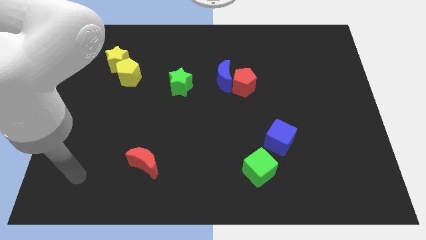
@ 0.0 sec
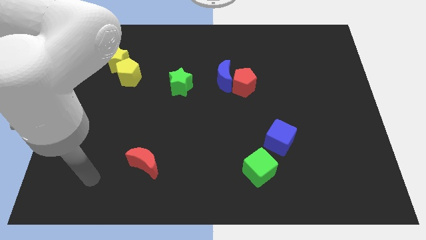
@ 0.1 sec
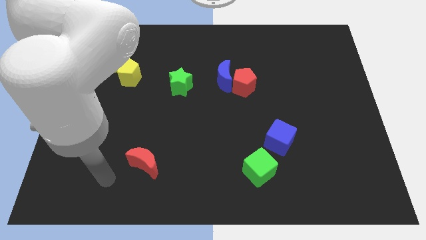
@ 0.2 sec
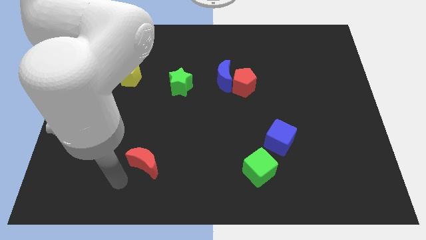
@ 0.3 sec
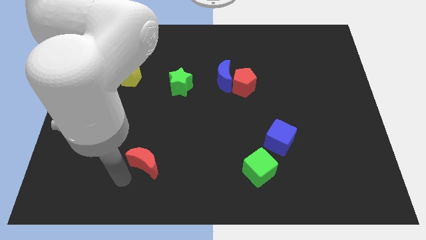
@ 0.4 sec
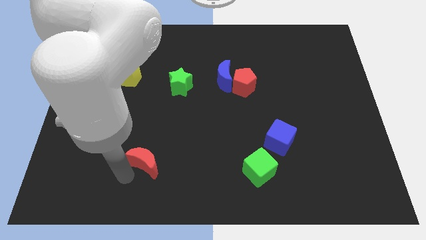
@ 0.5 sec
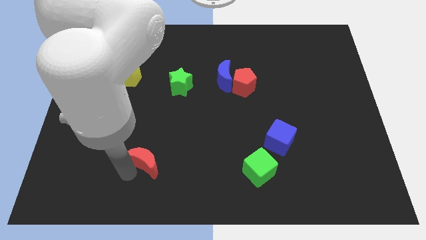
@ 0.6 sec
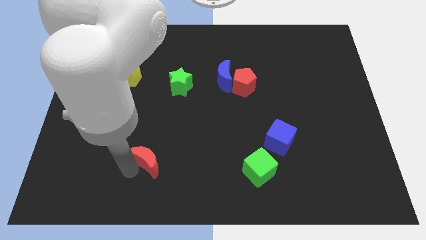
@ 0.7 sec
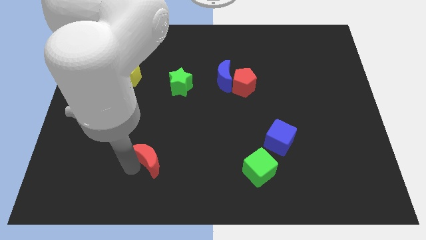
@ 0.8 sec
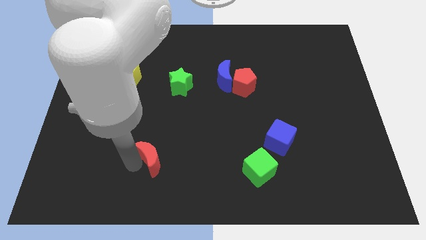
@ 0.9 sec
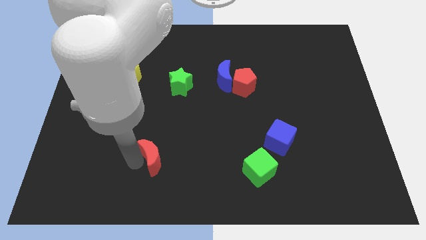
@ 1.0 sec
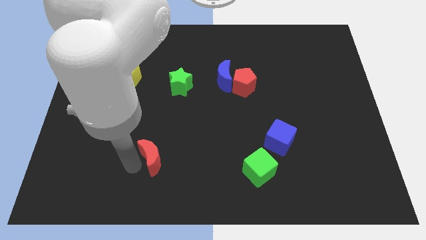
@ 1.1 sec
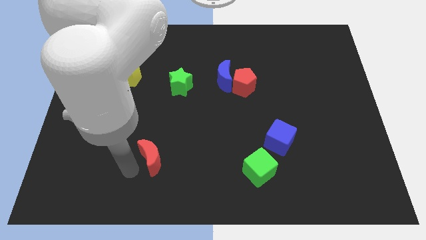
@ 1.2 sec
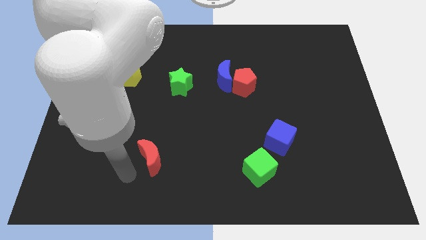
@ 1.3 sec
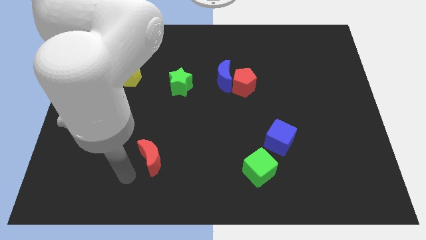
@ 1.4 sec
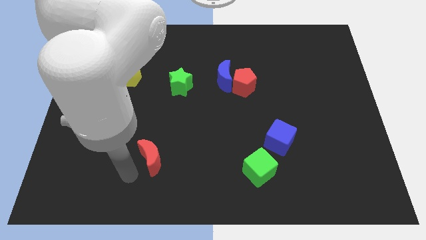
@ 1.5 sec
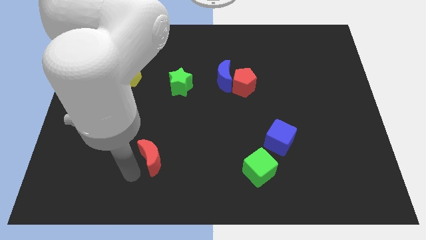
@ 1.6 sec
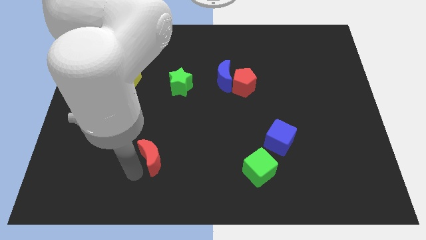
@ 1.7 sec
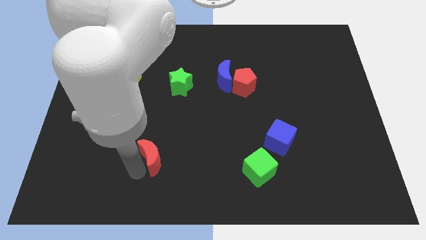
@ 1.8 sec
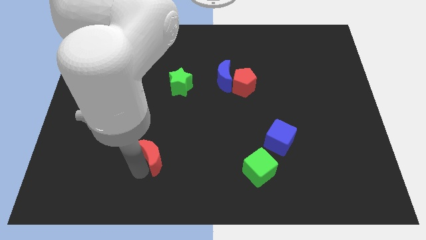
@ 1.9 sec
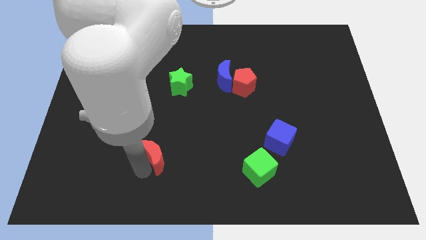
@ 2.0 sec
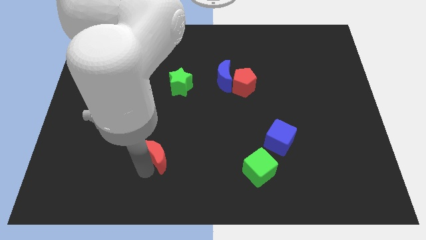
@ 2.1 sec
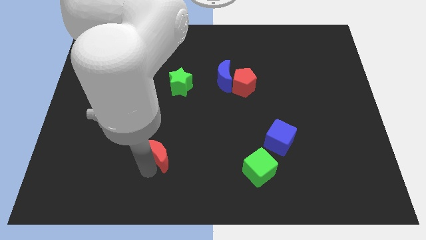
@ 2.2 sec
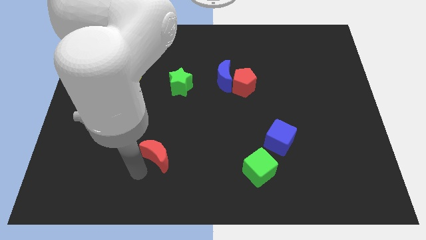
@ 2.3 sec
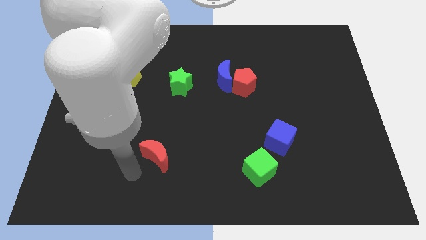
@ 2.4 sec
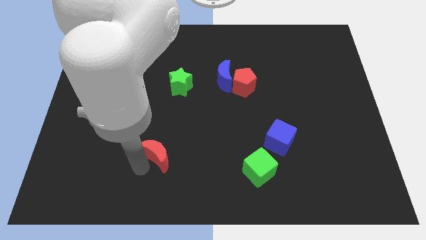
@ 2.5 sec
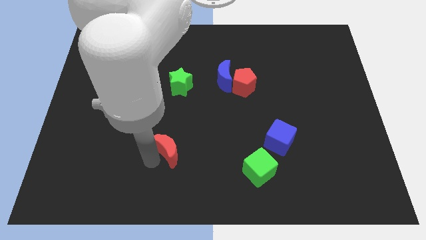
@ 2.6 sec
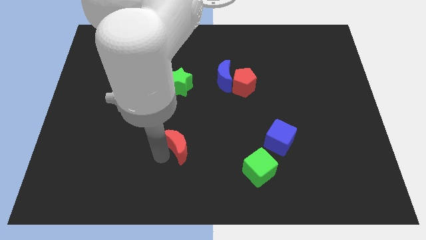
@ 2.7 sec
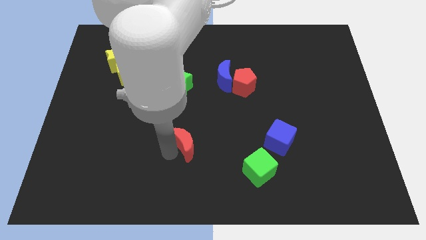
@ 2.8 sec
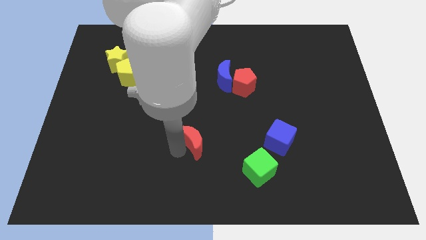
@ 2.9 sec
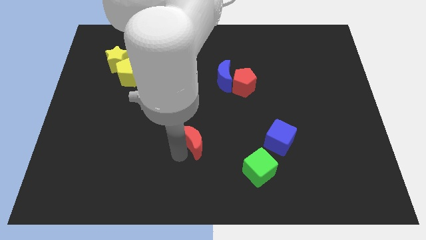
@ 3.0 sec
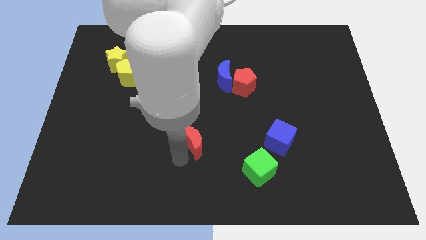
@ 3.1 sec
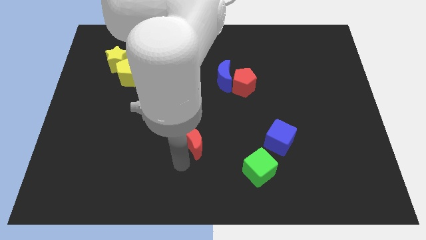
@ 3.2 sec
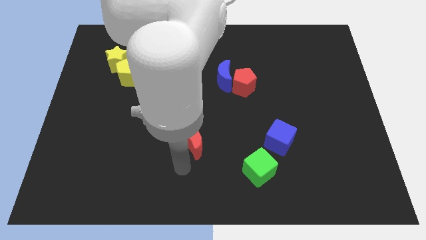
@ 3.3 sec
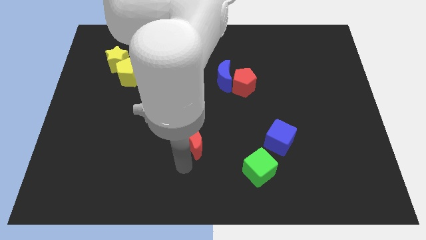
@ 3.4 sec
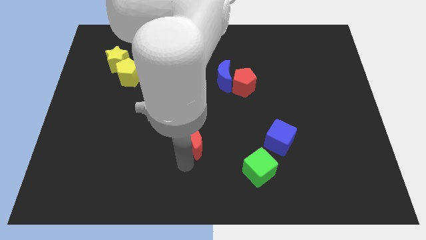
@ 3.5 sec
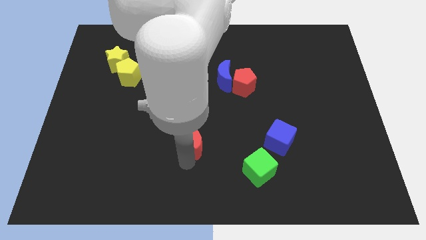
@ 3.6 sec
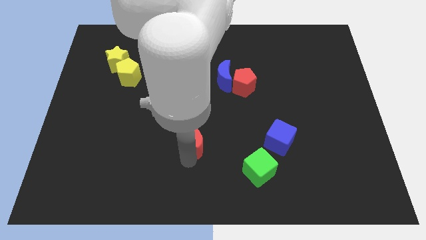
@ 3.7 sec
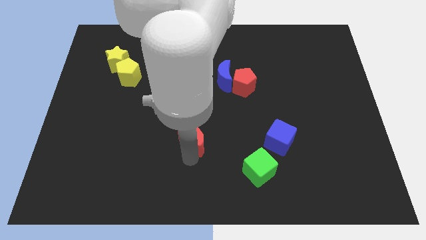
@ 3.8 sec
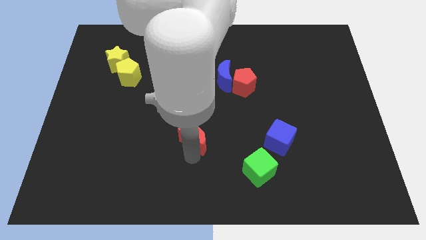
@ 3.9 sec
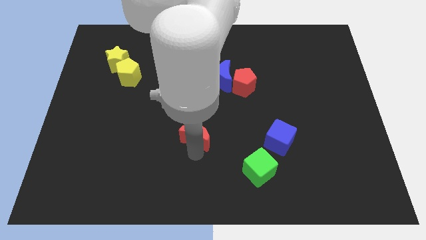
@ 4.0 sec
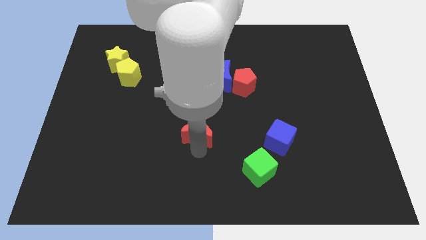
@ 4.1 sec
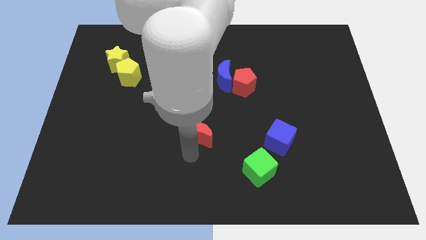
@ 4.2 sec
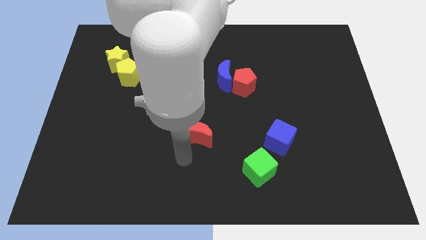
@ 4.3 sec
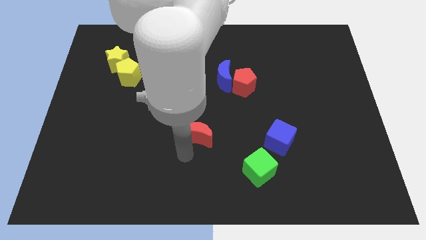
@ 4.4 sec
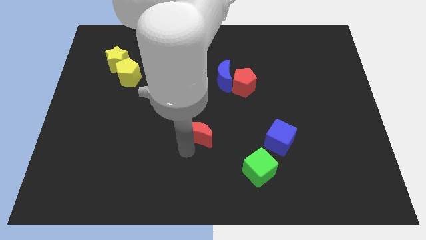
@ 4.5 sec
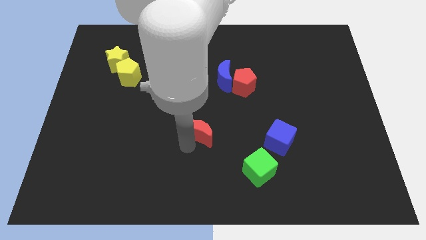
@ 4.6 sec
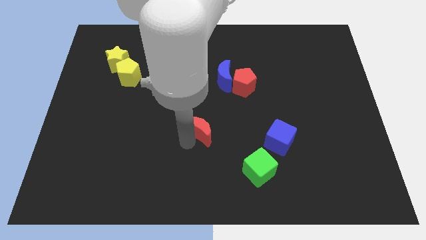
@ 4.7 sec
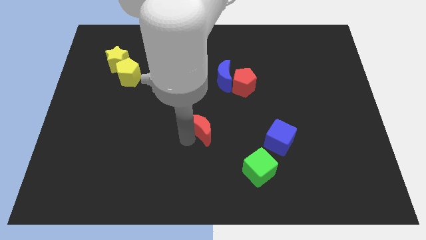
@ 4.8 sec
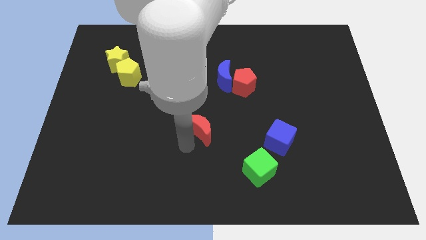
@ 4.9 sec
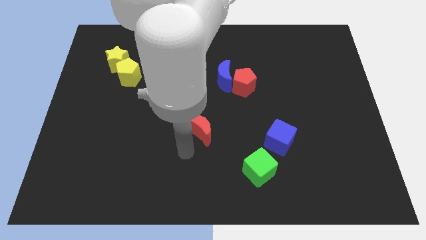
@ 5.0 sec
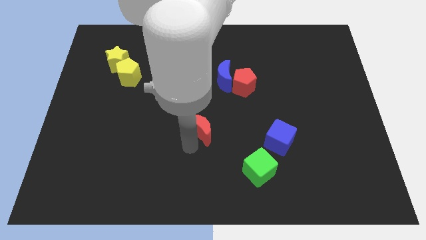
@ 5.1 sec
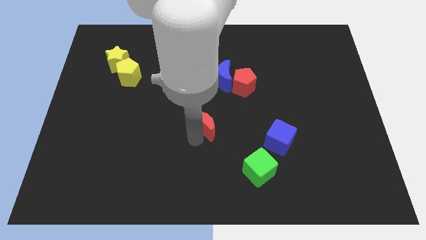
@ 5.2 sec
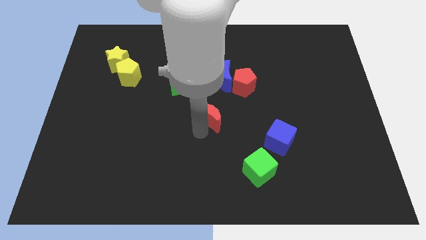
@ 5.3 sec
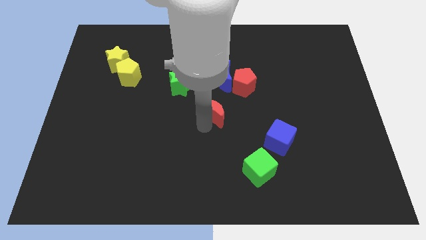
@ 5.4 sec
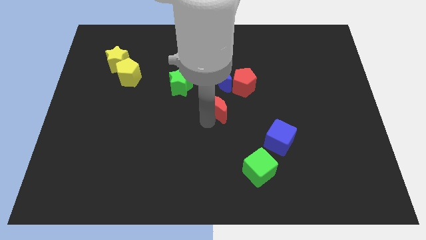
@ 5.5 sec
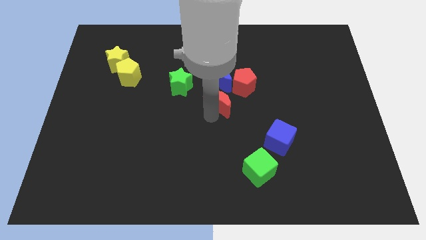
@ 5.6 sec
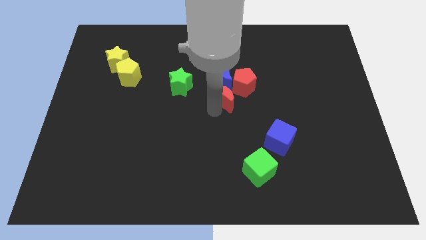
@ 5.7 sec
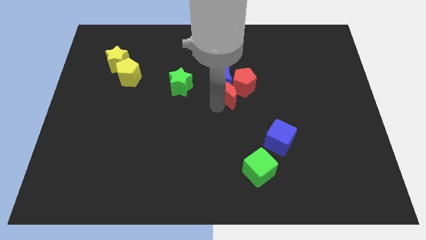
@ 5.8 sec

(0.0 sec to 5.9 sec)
slide the red moon towards the red pentagon

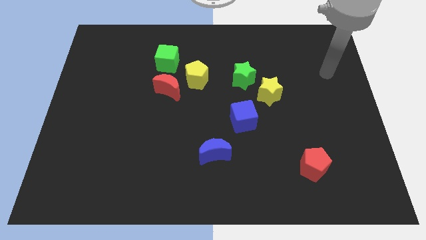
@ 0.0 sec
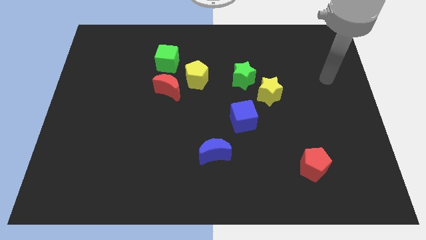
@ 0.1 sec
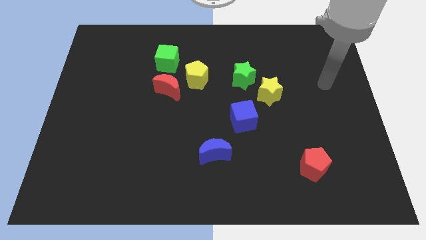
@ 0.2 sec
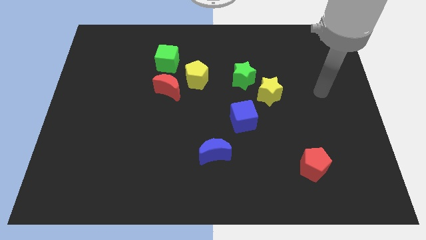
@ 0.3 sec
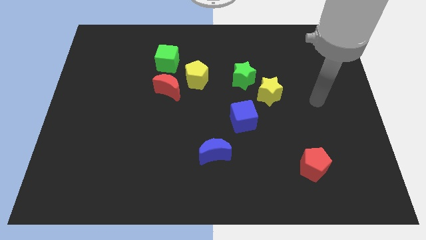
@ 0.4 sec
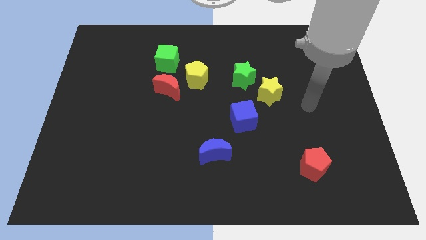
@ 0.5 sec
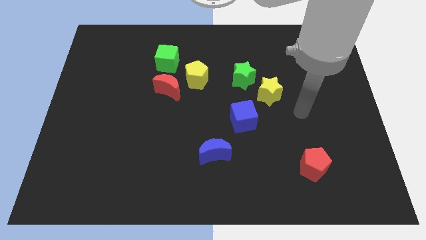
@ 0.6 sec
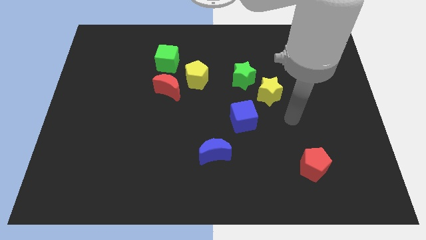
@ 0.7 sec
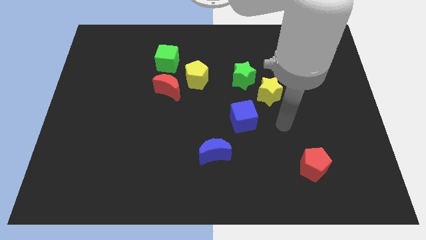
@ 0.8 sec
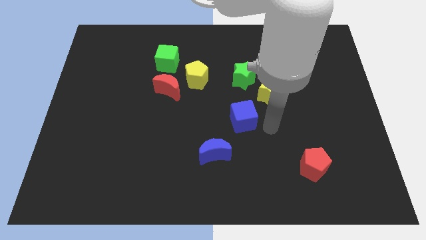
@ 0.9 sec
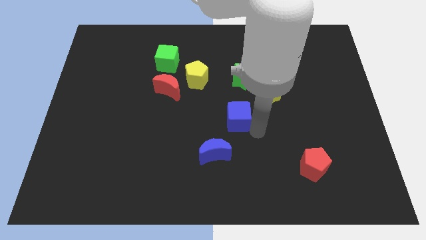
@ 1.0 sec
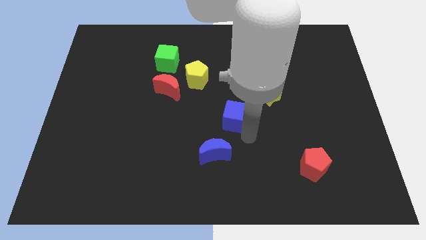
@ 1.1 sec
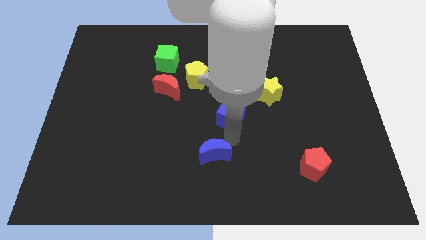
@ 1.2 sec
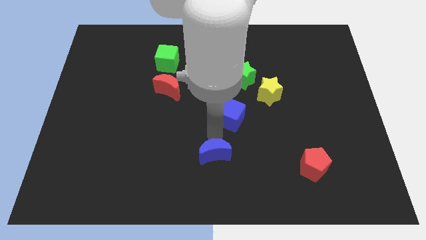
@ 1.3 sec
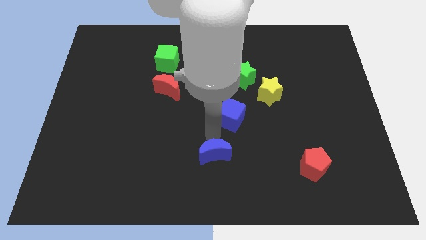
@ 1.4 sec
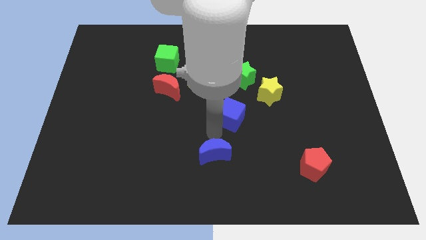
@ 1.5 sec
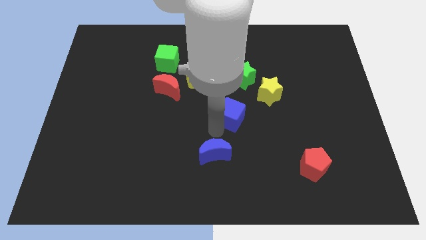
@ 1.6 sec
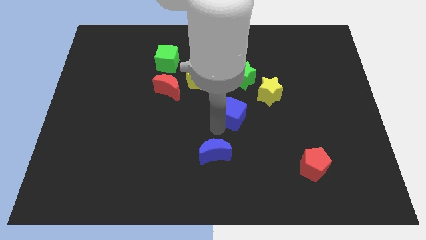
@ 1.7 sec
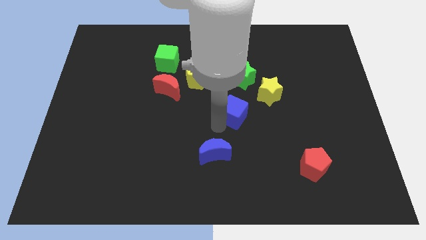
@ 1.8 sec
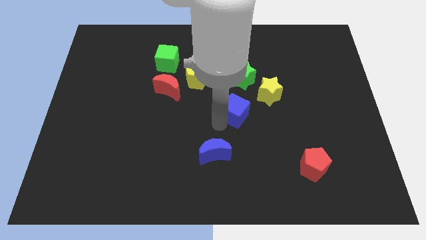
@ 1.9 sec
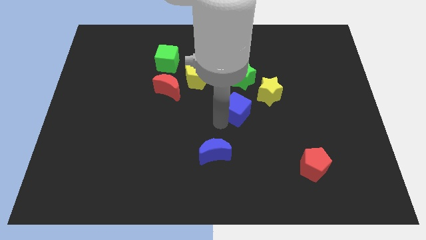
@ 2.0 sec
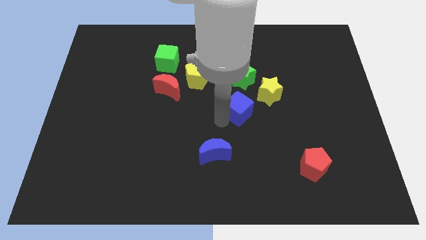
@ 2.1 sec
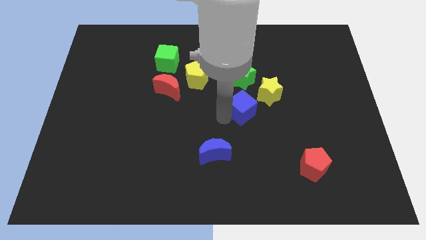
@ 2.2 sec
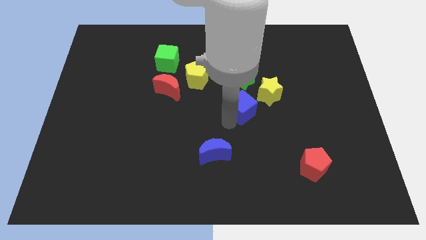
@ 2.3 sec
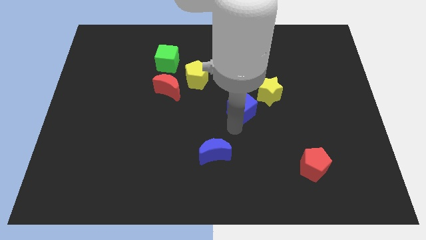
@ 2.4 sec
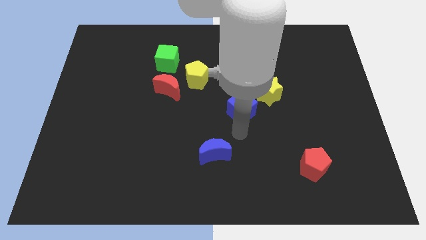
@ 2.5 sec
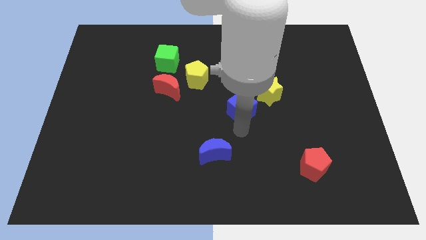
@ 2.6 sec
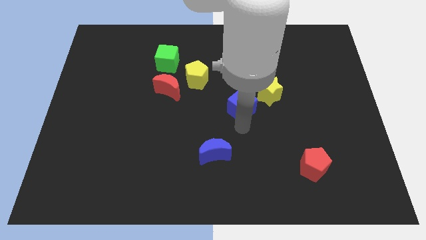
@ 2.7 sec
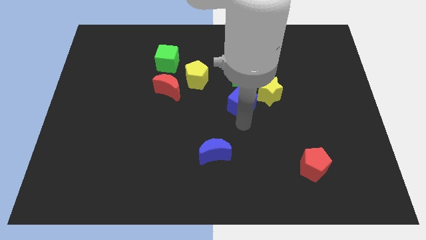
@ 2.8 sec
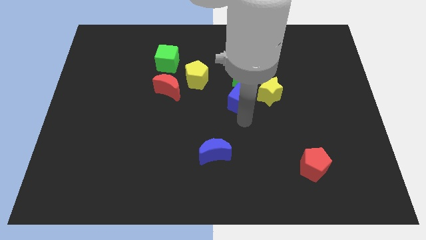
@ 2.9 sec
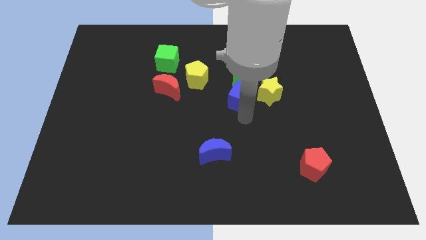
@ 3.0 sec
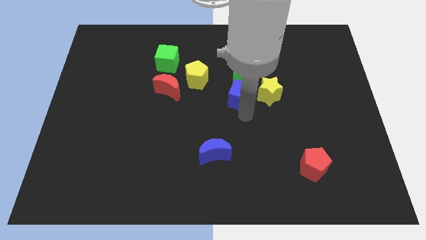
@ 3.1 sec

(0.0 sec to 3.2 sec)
slide the blue cube to the green star
